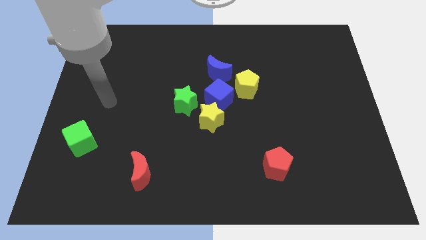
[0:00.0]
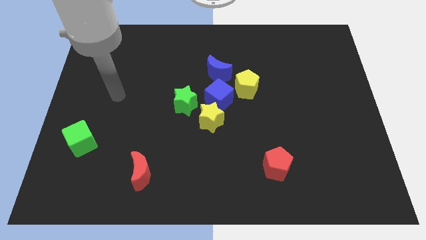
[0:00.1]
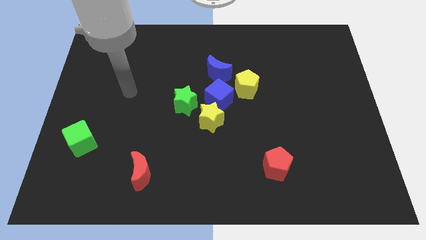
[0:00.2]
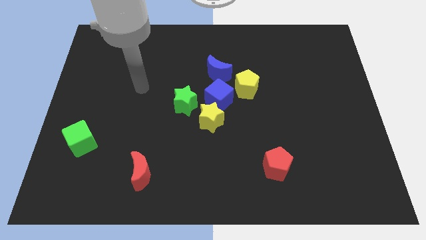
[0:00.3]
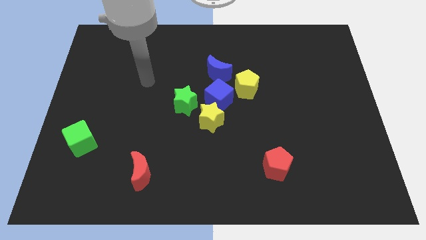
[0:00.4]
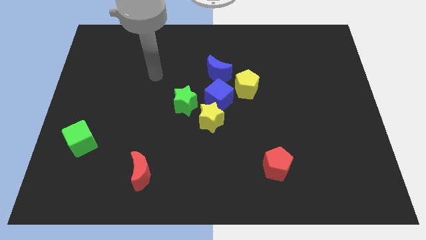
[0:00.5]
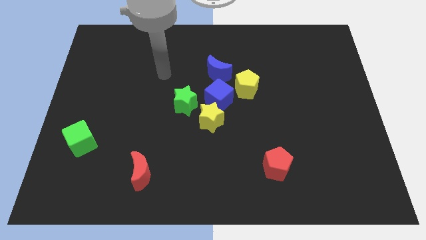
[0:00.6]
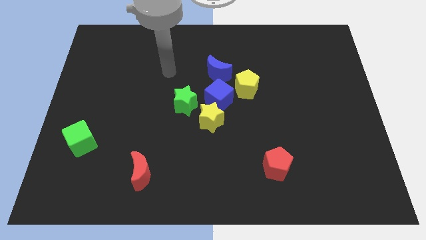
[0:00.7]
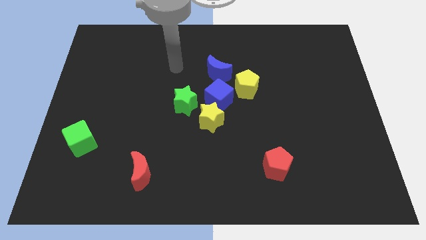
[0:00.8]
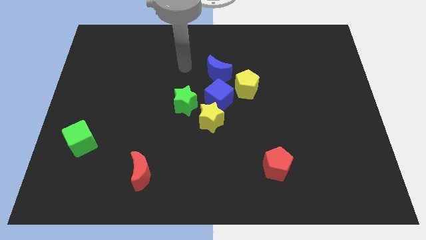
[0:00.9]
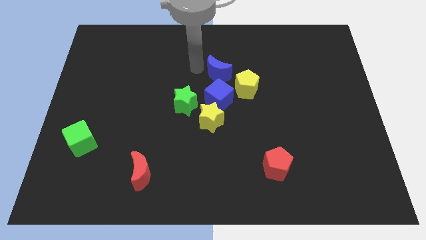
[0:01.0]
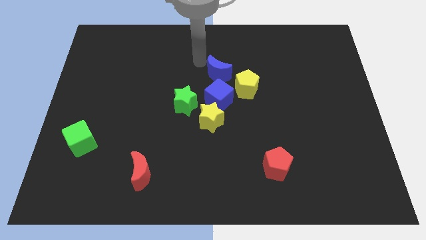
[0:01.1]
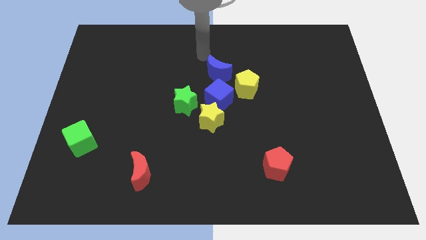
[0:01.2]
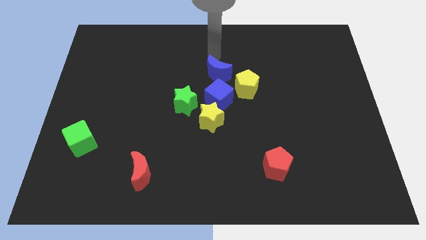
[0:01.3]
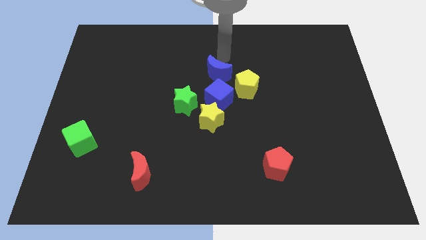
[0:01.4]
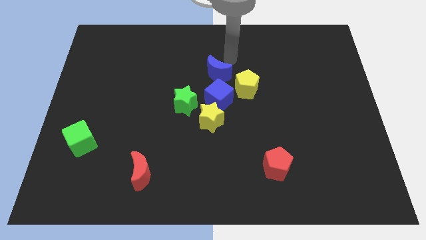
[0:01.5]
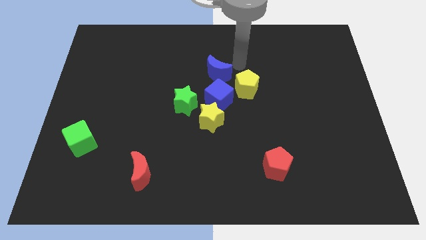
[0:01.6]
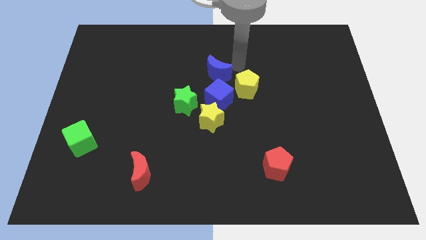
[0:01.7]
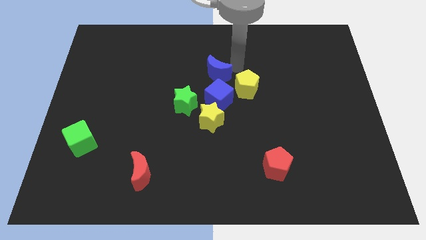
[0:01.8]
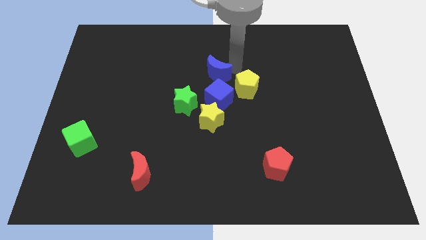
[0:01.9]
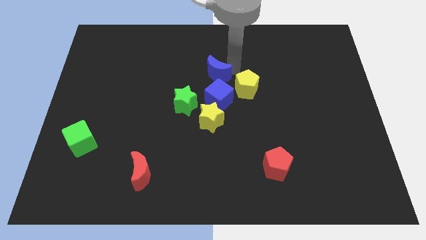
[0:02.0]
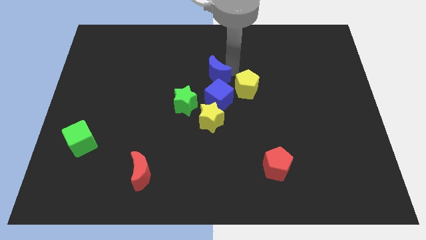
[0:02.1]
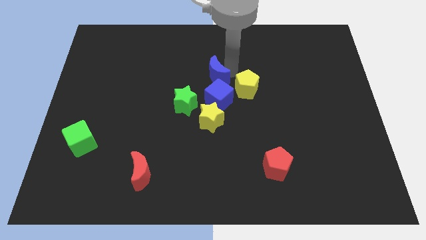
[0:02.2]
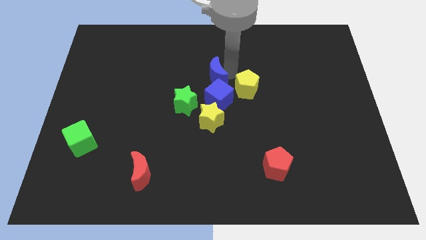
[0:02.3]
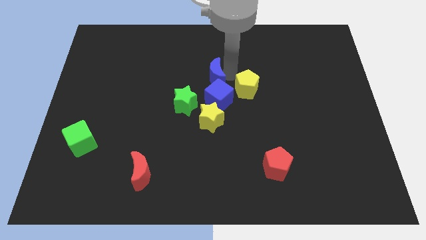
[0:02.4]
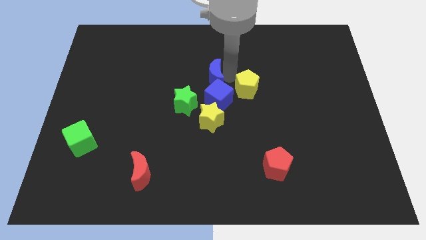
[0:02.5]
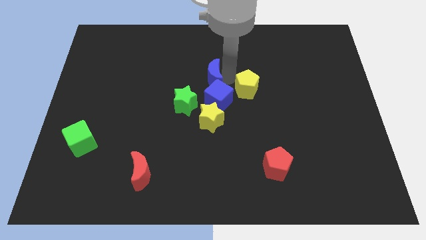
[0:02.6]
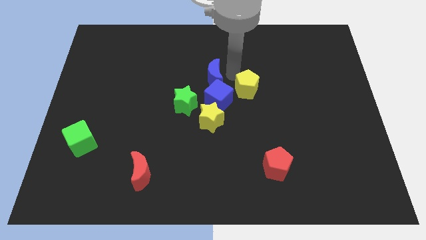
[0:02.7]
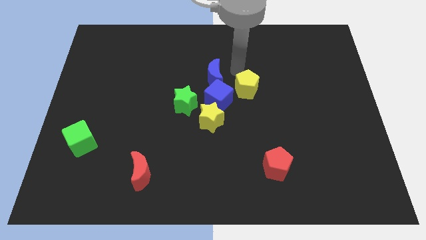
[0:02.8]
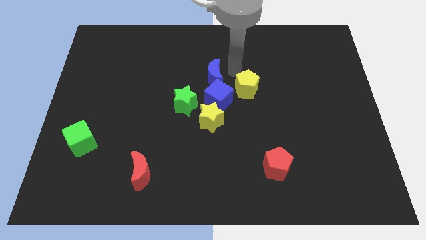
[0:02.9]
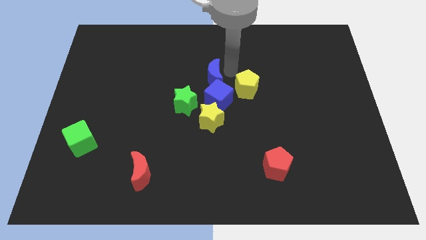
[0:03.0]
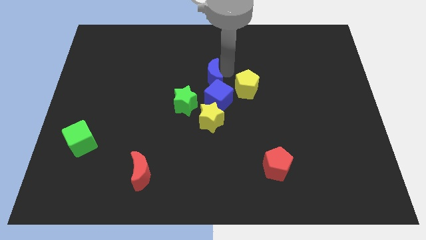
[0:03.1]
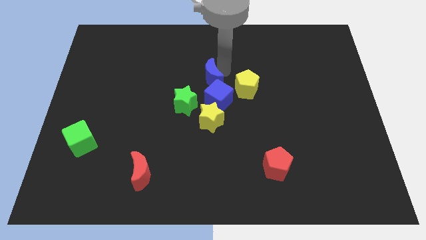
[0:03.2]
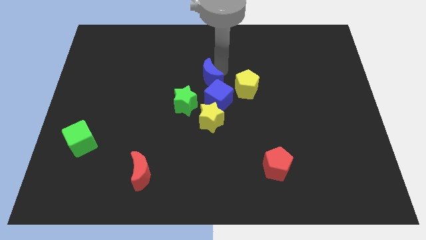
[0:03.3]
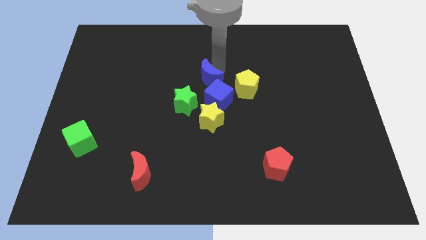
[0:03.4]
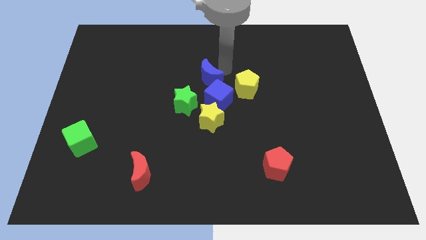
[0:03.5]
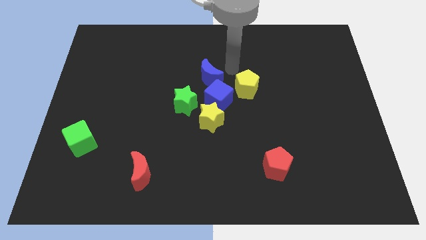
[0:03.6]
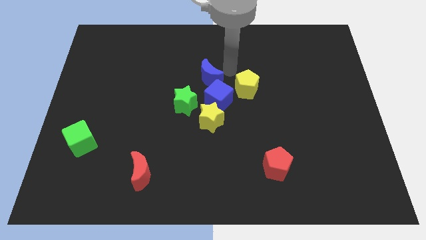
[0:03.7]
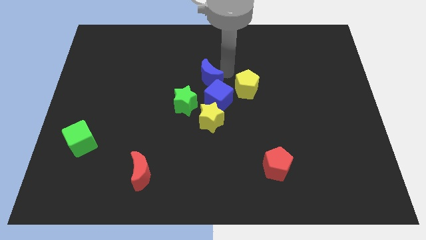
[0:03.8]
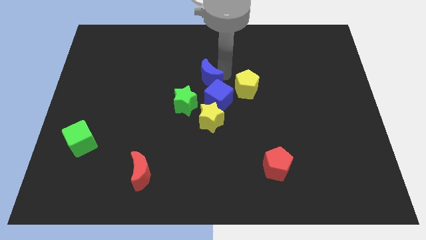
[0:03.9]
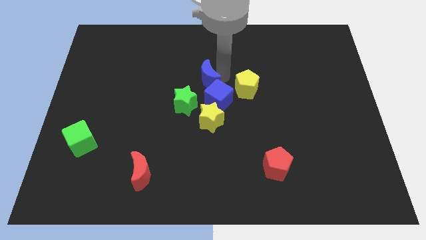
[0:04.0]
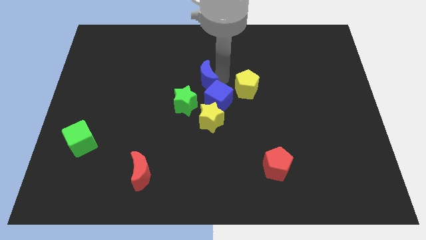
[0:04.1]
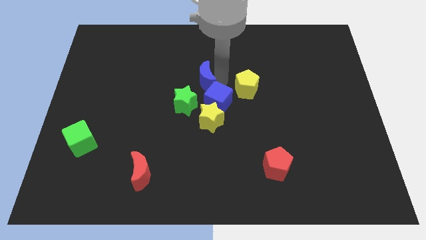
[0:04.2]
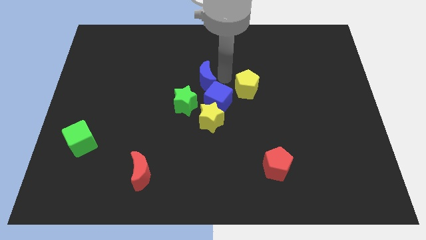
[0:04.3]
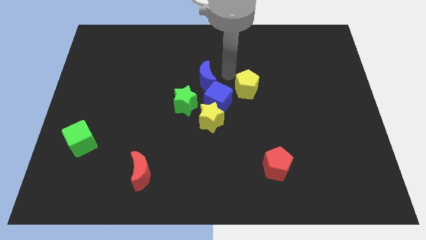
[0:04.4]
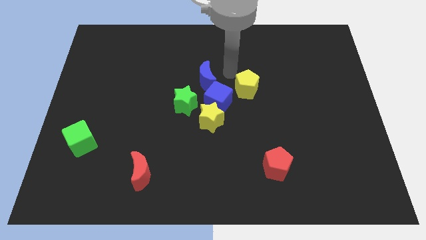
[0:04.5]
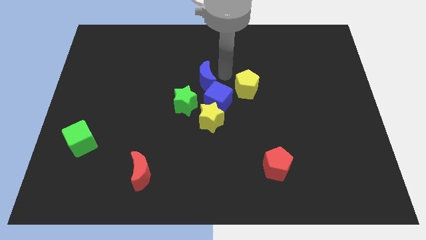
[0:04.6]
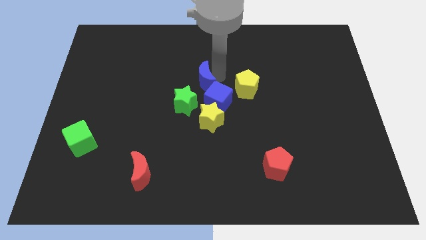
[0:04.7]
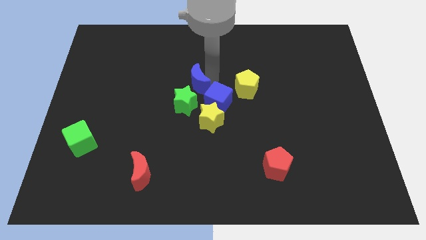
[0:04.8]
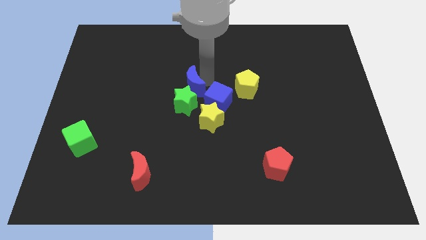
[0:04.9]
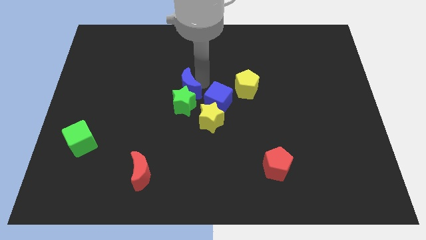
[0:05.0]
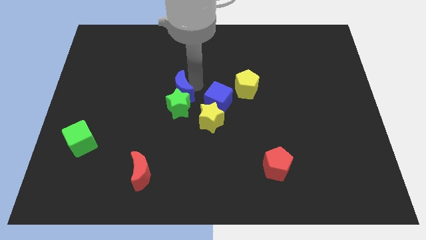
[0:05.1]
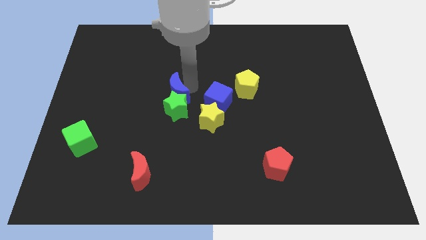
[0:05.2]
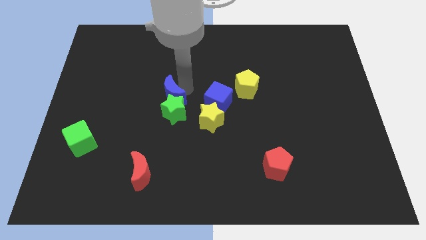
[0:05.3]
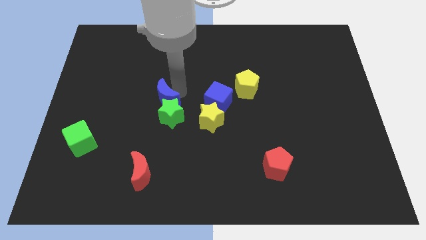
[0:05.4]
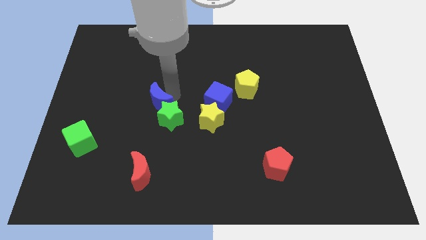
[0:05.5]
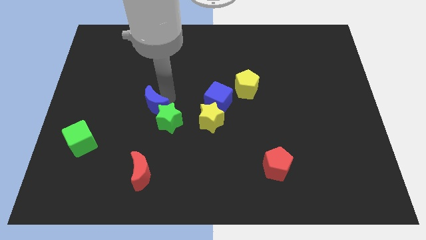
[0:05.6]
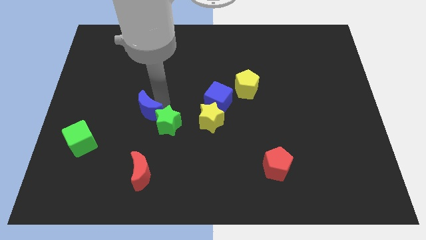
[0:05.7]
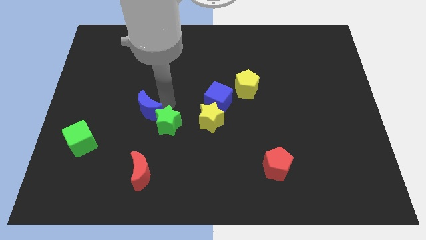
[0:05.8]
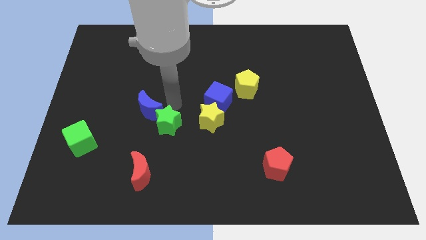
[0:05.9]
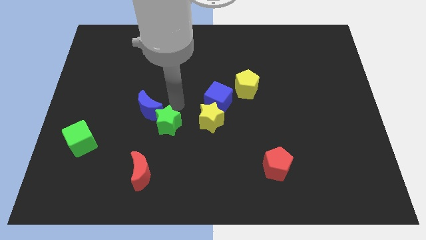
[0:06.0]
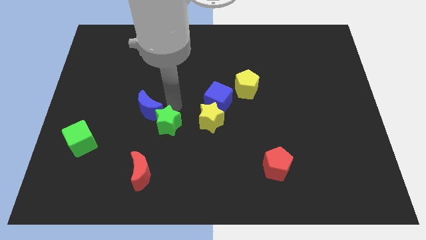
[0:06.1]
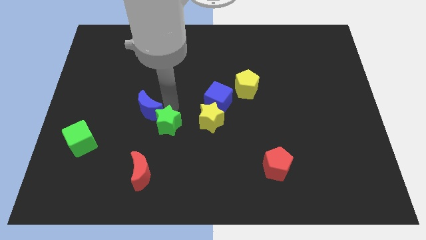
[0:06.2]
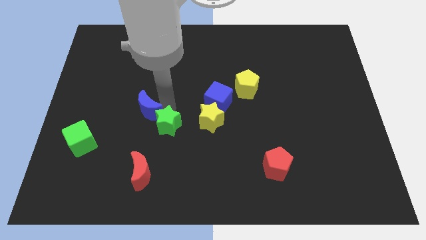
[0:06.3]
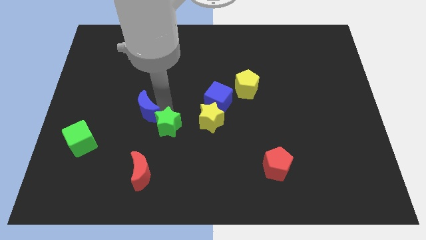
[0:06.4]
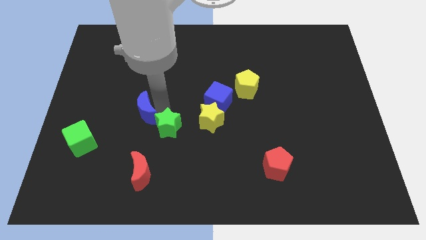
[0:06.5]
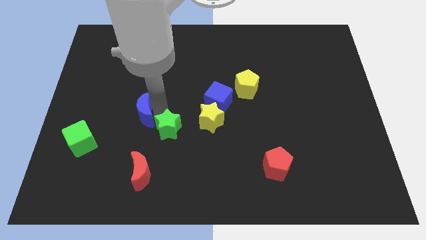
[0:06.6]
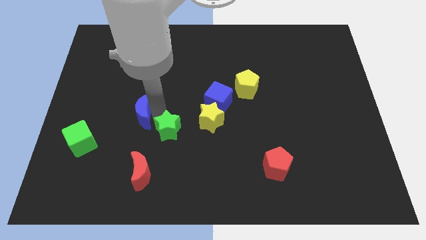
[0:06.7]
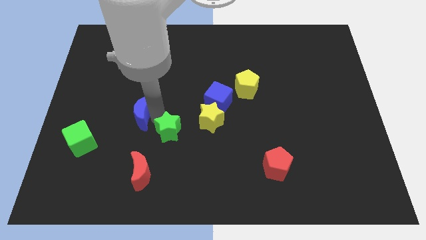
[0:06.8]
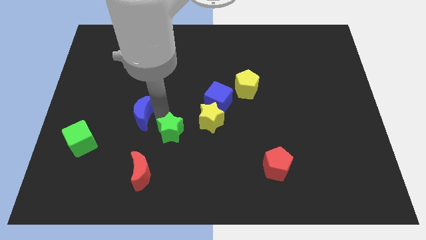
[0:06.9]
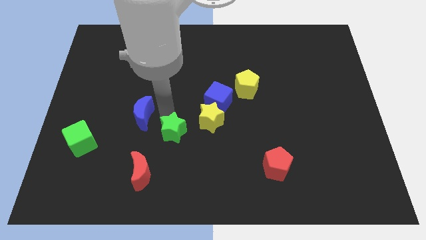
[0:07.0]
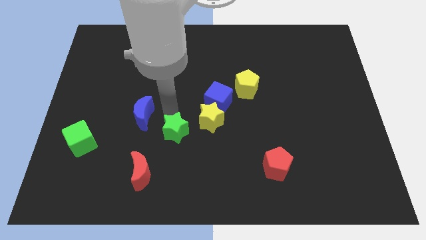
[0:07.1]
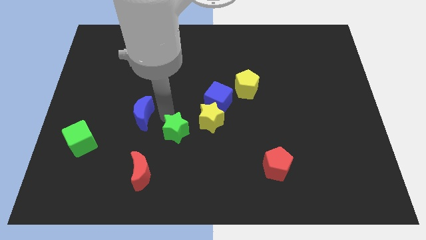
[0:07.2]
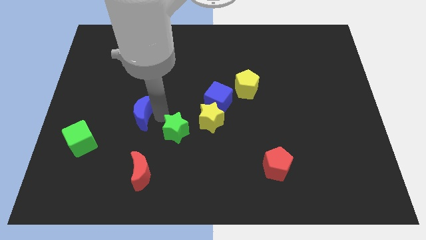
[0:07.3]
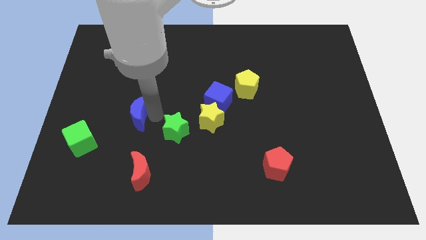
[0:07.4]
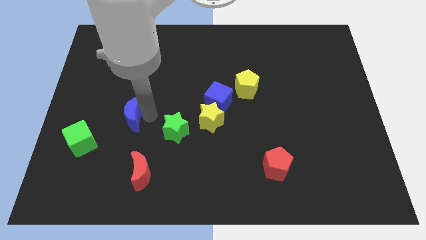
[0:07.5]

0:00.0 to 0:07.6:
move the blue moon diagonally up and to the right of the green cube
